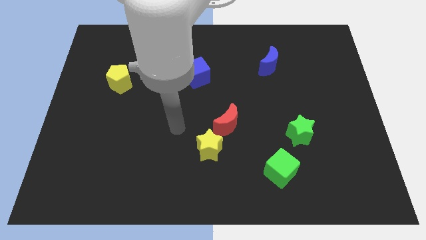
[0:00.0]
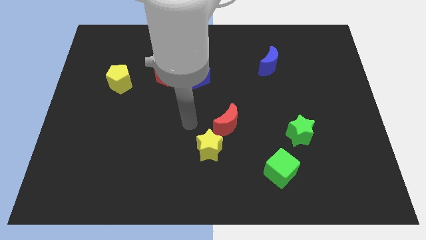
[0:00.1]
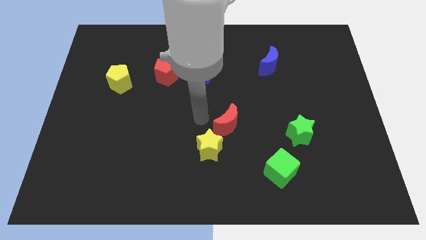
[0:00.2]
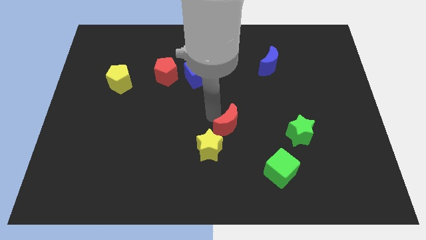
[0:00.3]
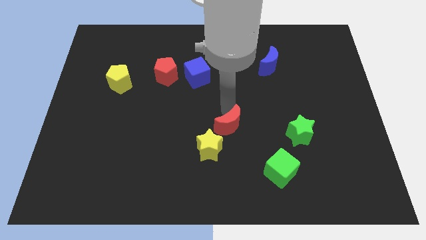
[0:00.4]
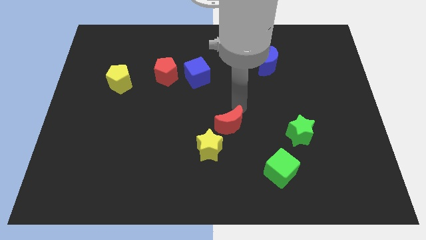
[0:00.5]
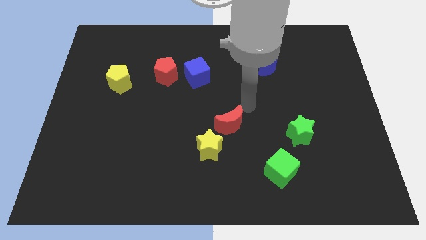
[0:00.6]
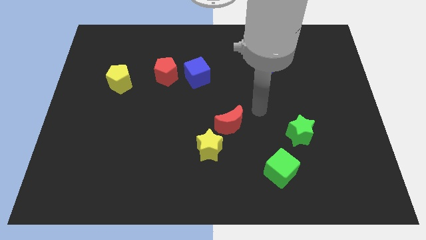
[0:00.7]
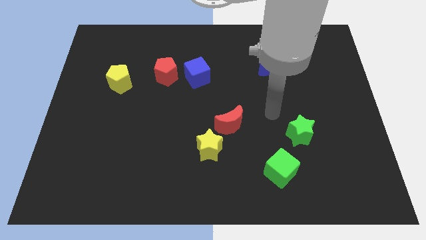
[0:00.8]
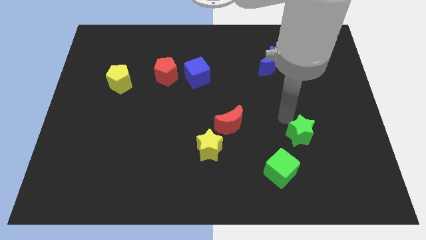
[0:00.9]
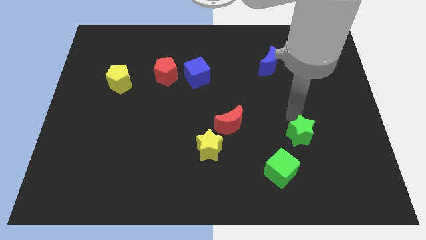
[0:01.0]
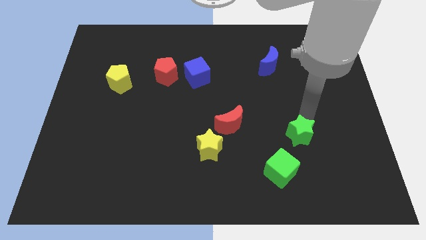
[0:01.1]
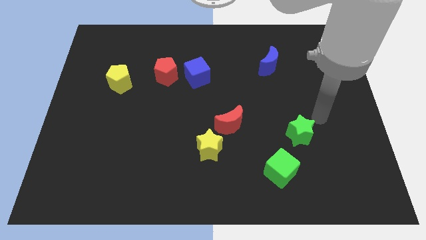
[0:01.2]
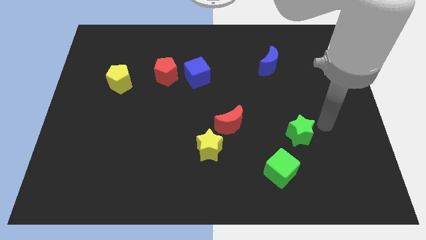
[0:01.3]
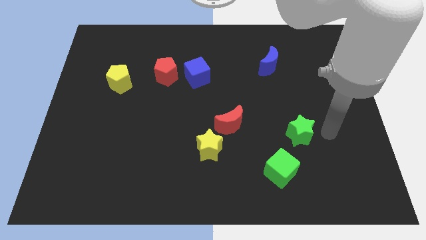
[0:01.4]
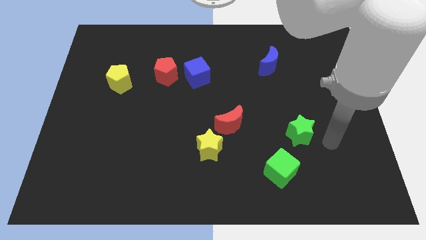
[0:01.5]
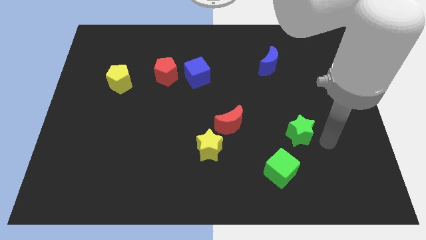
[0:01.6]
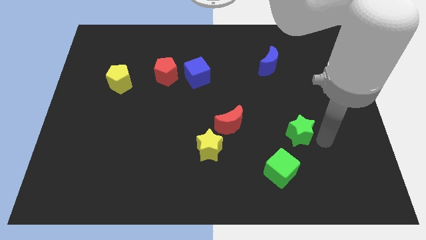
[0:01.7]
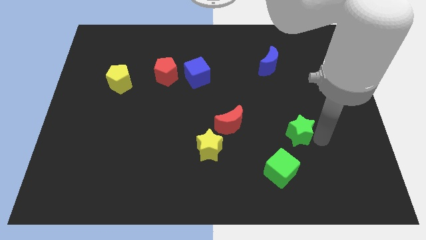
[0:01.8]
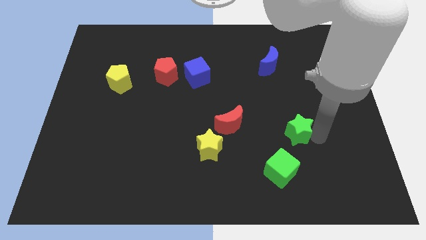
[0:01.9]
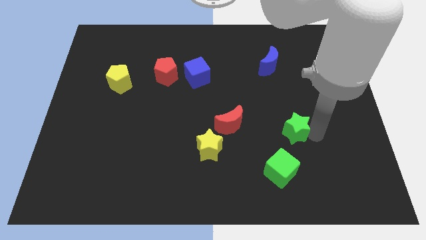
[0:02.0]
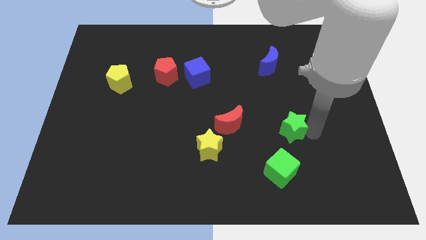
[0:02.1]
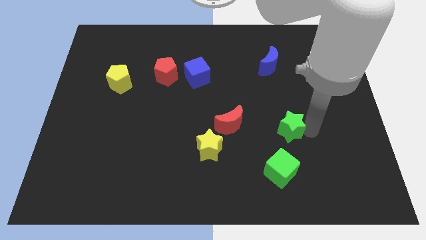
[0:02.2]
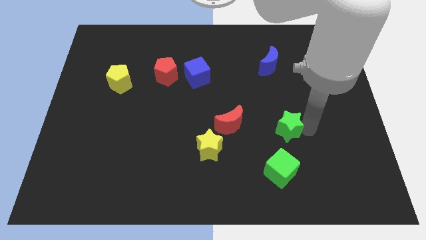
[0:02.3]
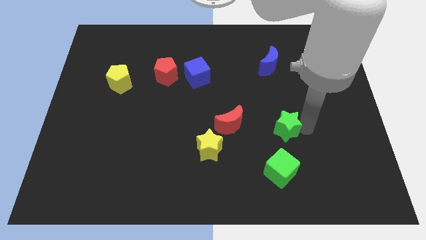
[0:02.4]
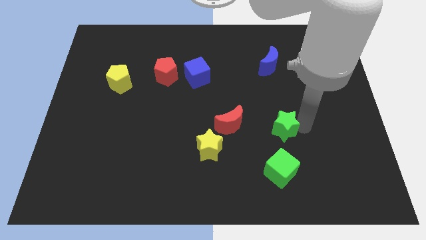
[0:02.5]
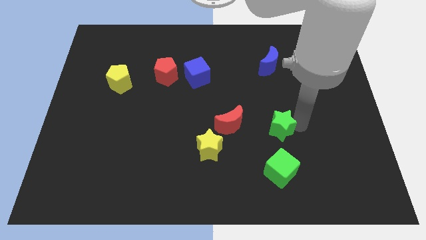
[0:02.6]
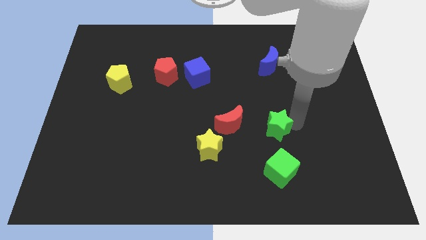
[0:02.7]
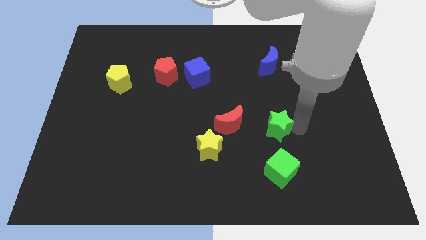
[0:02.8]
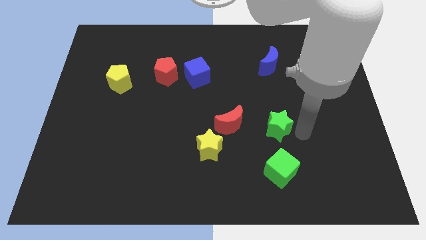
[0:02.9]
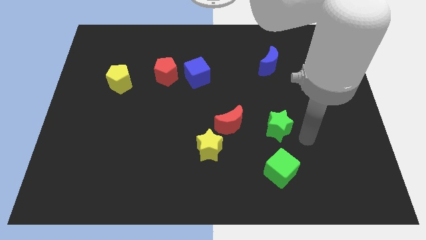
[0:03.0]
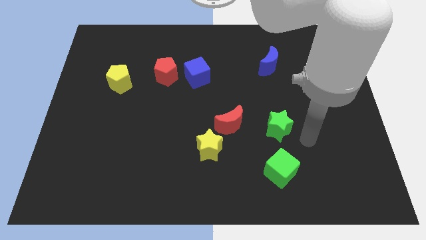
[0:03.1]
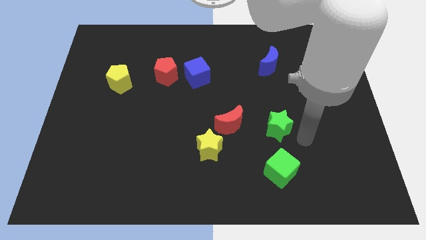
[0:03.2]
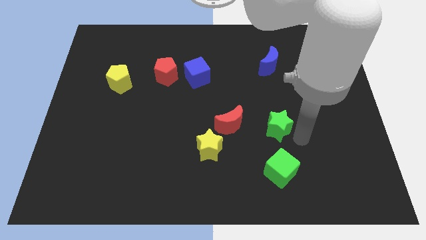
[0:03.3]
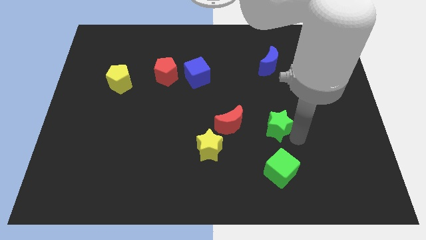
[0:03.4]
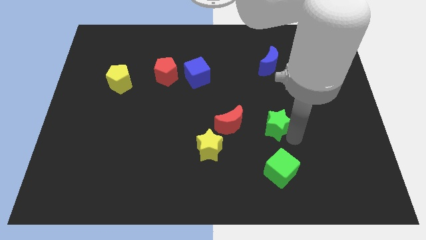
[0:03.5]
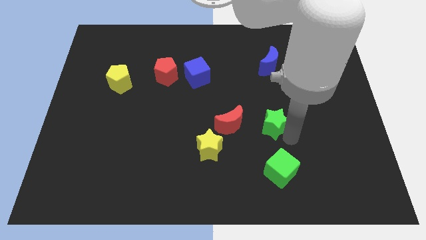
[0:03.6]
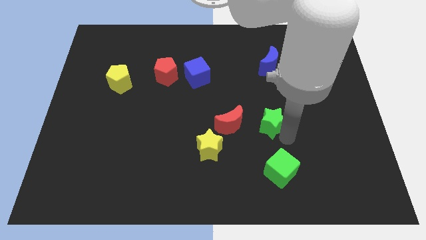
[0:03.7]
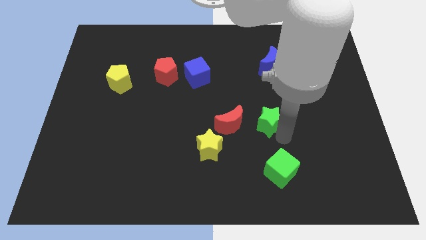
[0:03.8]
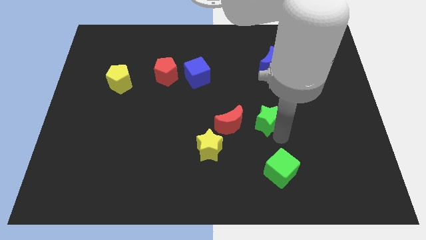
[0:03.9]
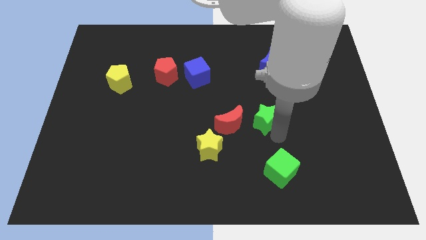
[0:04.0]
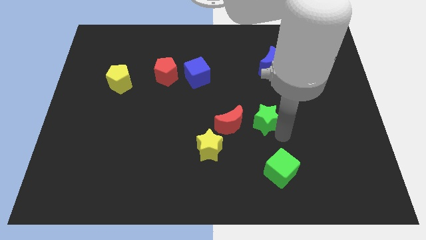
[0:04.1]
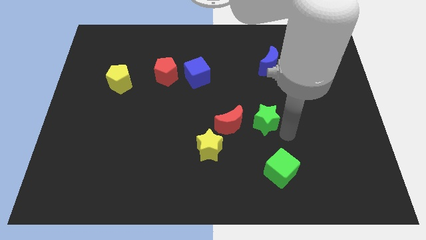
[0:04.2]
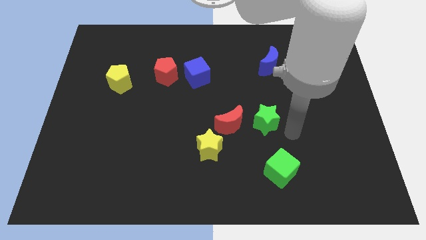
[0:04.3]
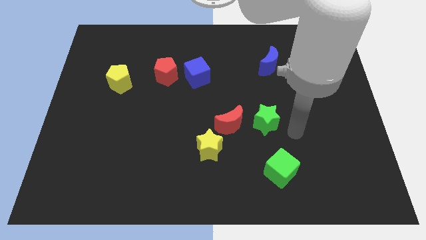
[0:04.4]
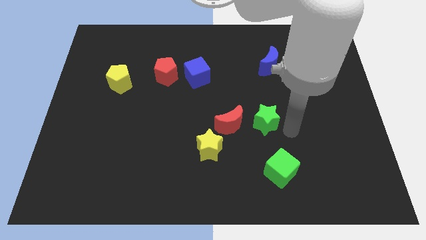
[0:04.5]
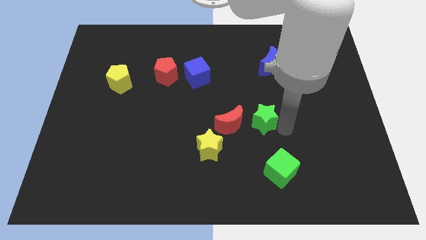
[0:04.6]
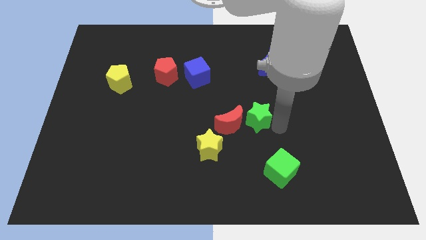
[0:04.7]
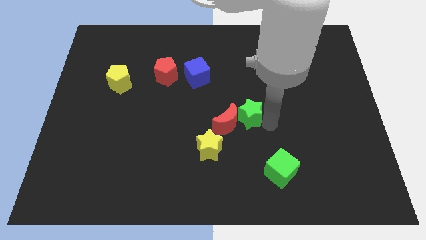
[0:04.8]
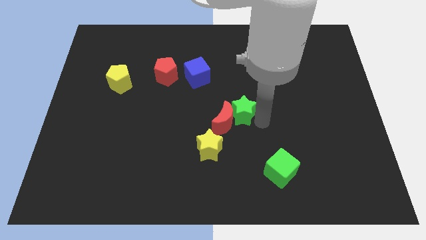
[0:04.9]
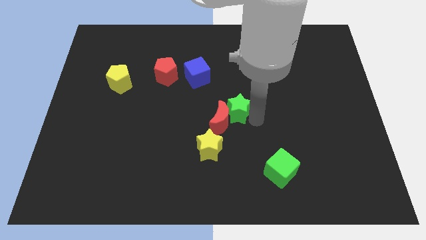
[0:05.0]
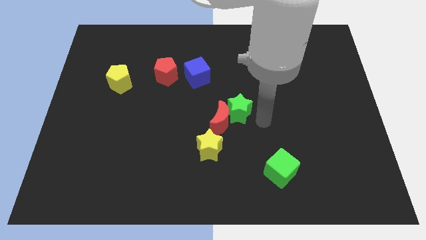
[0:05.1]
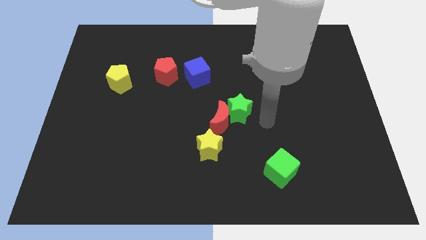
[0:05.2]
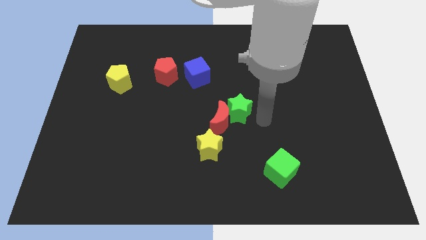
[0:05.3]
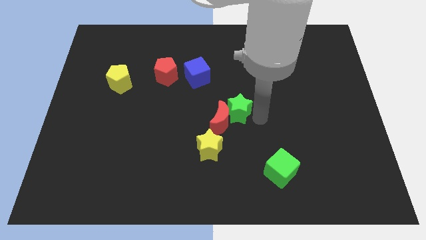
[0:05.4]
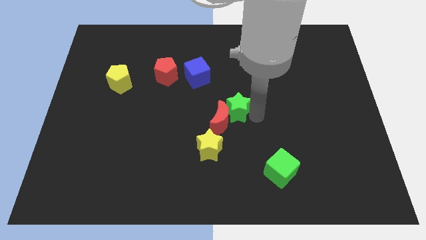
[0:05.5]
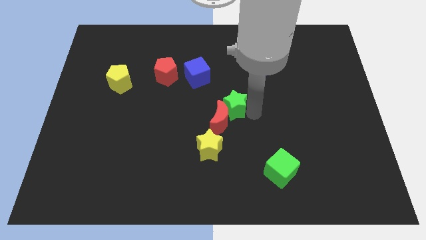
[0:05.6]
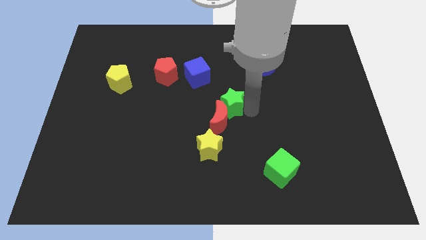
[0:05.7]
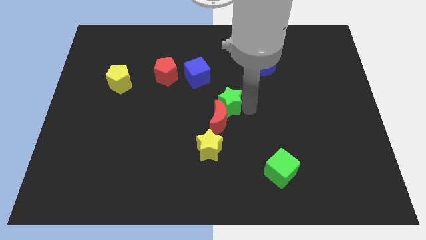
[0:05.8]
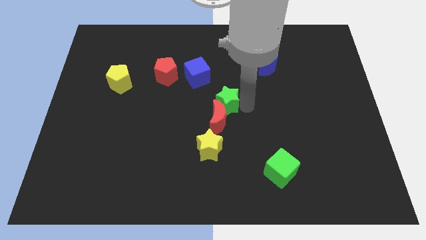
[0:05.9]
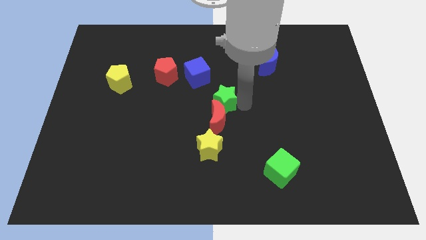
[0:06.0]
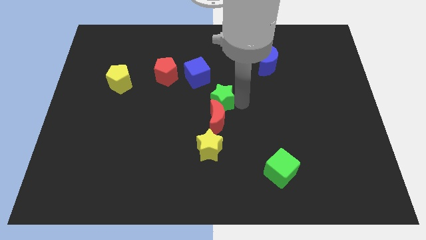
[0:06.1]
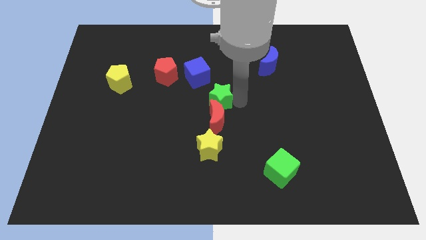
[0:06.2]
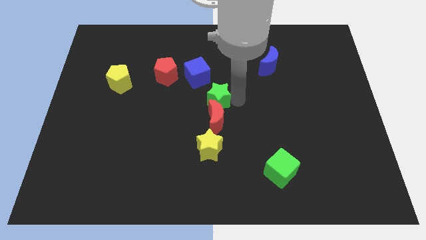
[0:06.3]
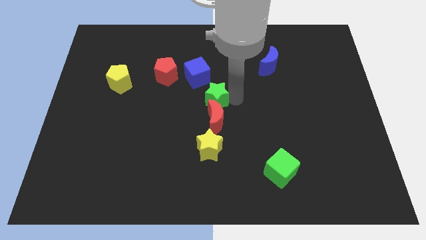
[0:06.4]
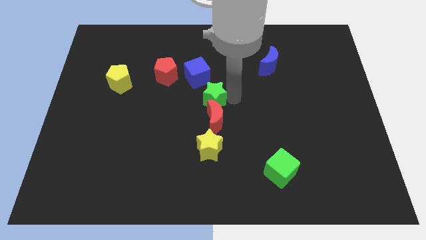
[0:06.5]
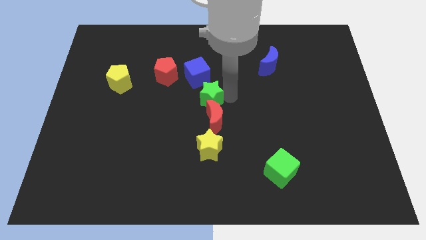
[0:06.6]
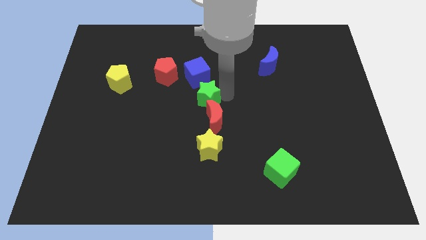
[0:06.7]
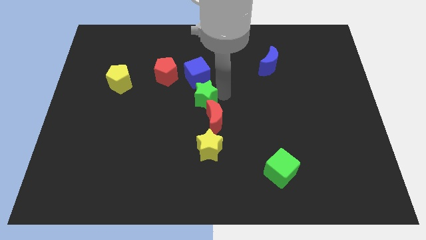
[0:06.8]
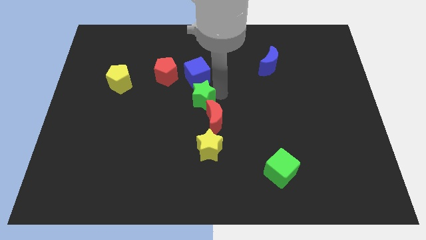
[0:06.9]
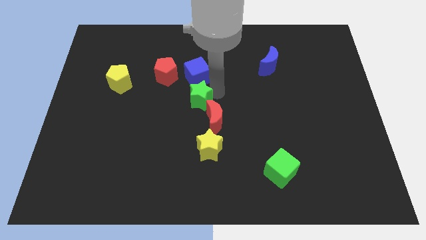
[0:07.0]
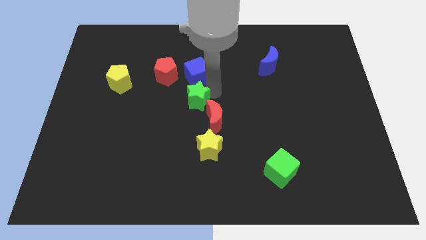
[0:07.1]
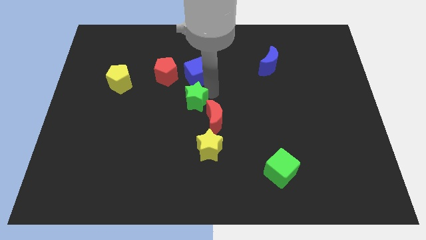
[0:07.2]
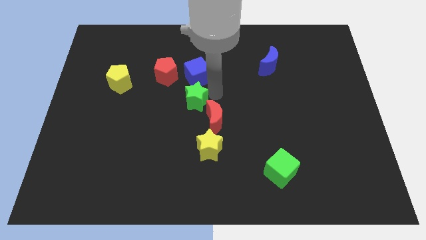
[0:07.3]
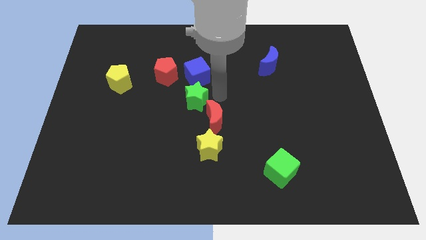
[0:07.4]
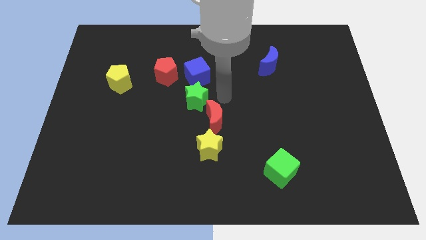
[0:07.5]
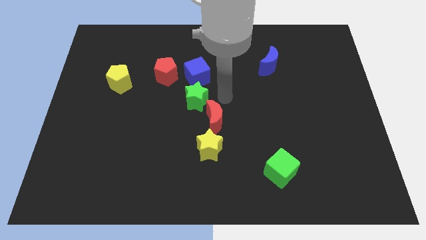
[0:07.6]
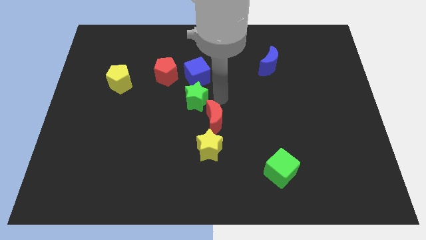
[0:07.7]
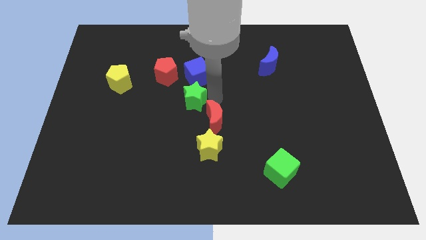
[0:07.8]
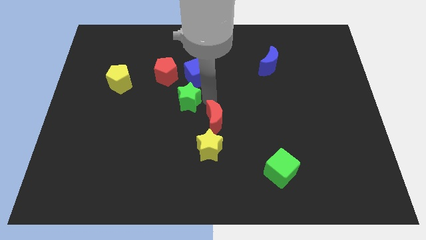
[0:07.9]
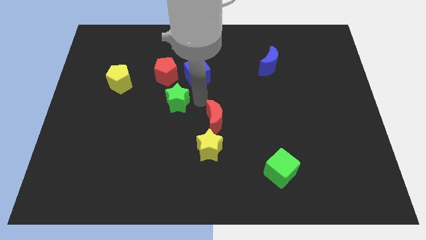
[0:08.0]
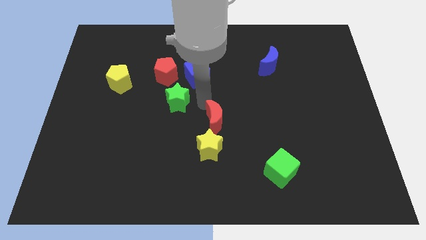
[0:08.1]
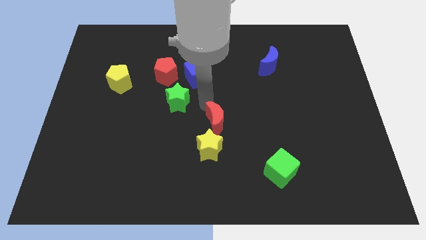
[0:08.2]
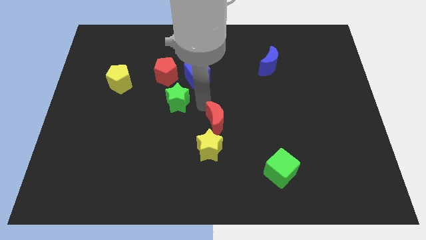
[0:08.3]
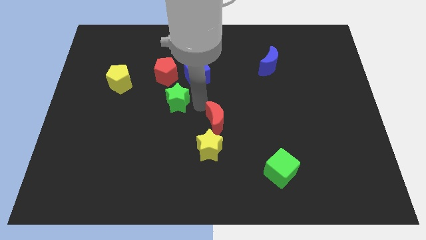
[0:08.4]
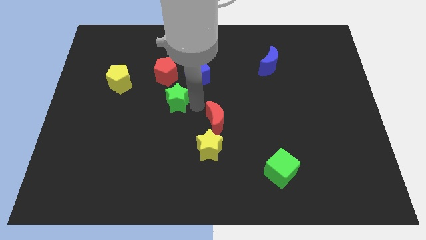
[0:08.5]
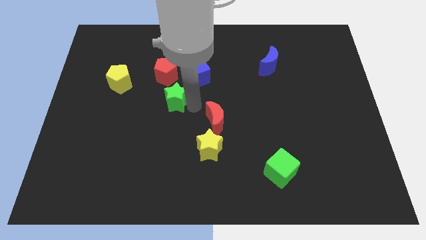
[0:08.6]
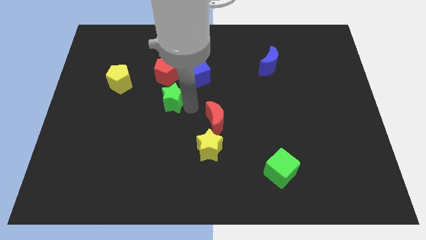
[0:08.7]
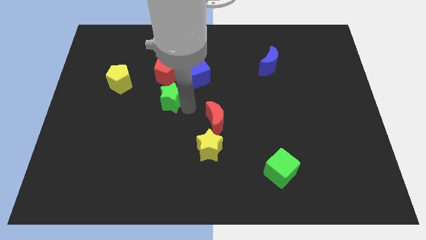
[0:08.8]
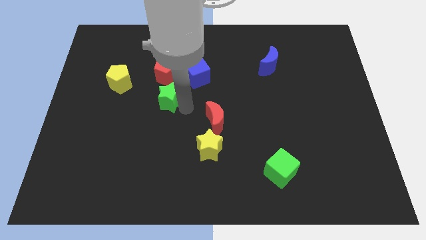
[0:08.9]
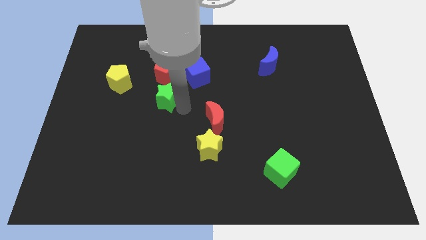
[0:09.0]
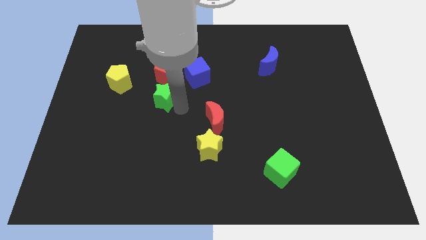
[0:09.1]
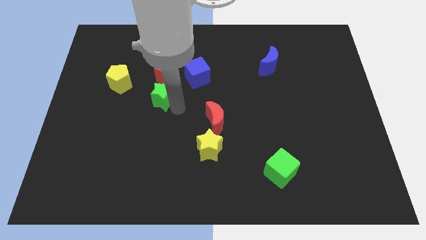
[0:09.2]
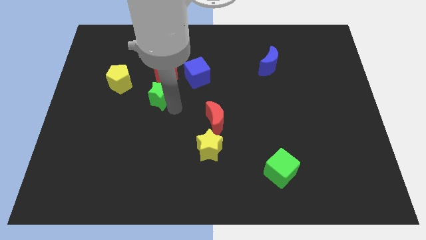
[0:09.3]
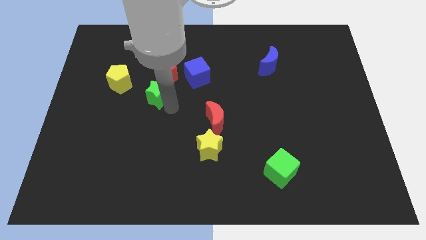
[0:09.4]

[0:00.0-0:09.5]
slide the green star to the bottom left of the red pentagon
